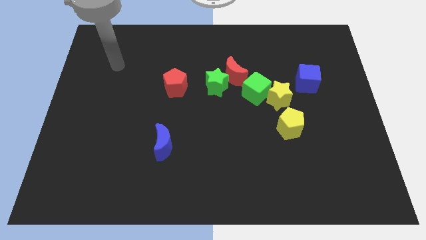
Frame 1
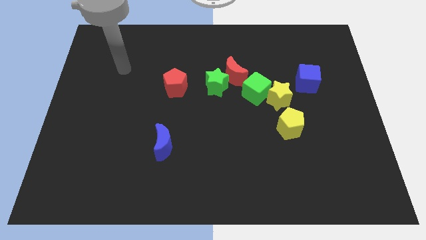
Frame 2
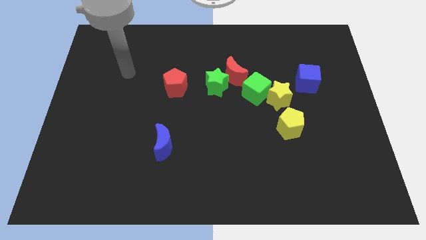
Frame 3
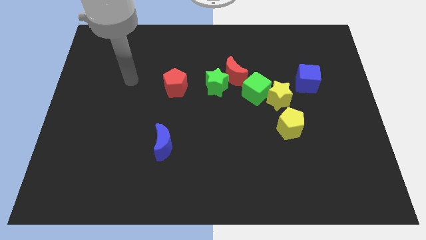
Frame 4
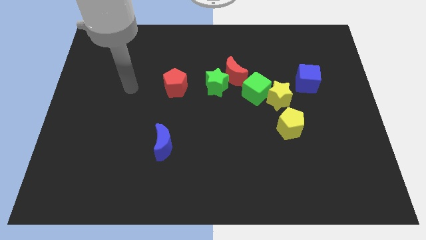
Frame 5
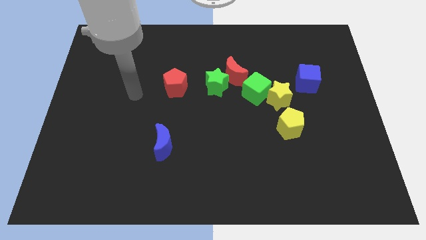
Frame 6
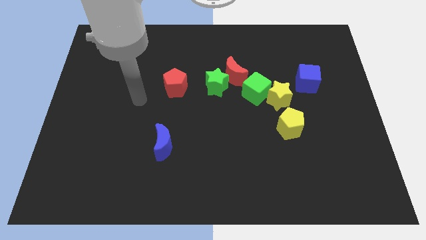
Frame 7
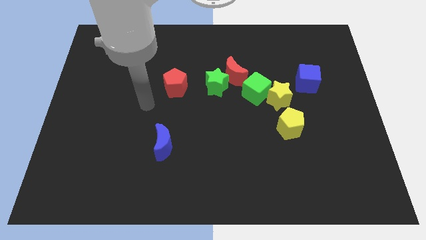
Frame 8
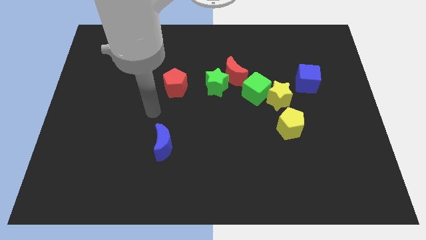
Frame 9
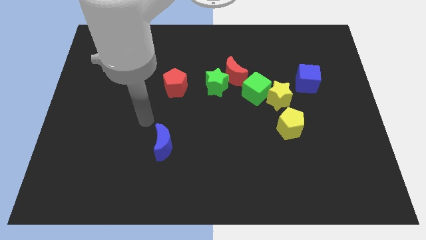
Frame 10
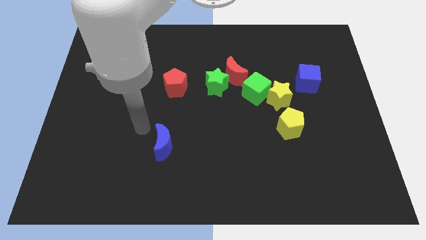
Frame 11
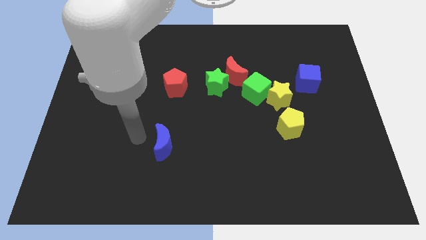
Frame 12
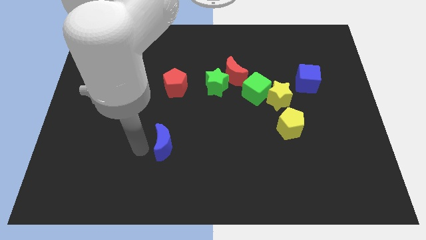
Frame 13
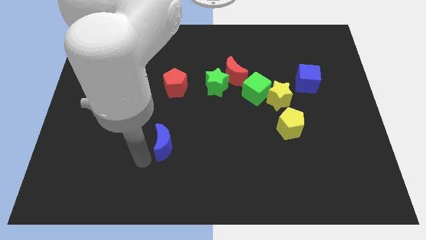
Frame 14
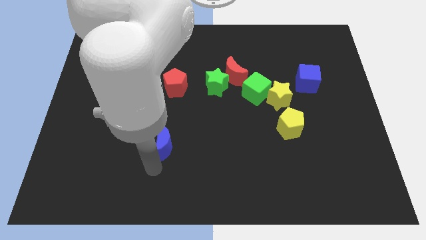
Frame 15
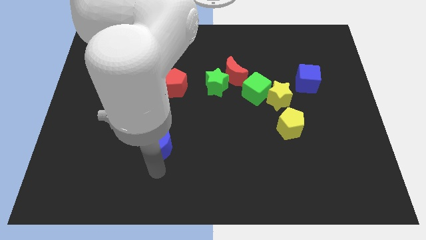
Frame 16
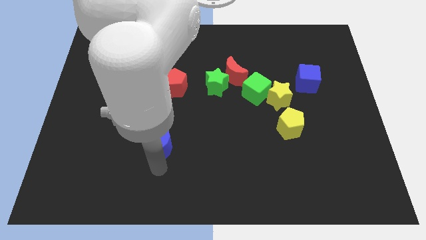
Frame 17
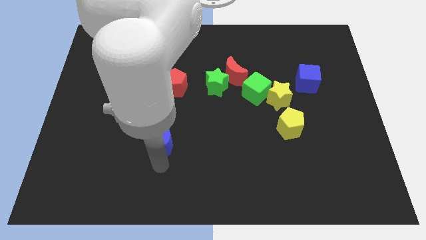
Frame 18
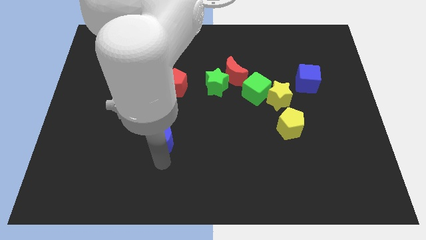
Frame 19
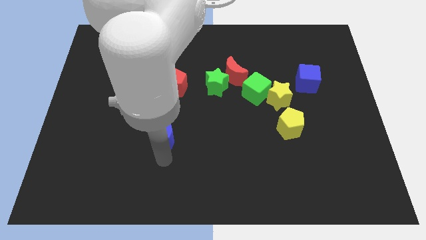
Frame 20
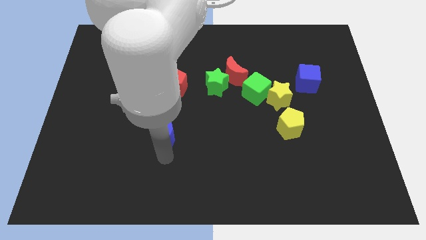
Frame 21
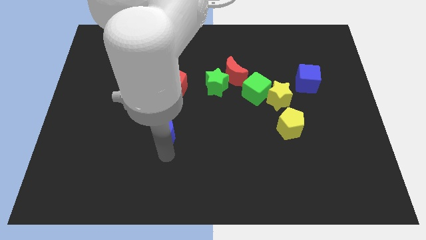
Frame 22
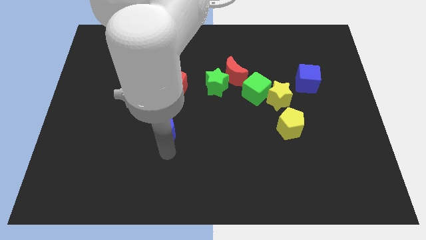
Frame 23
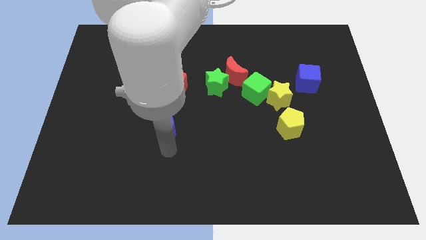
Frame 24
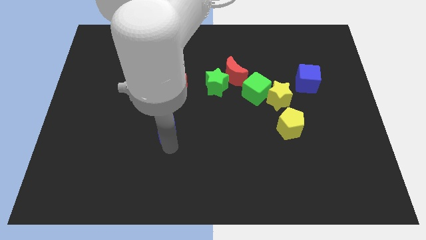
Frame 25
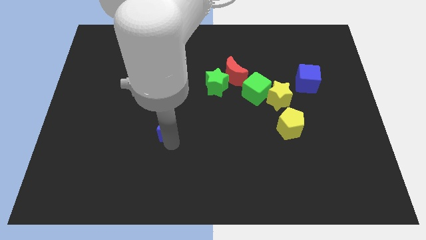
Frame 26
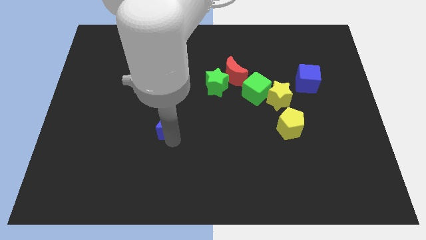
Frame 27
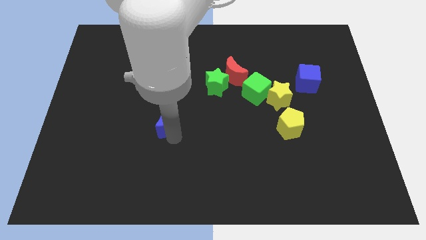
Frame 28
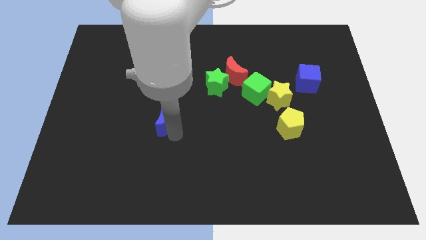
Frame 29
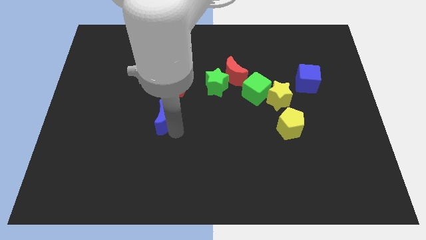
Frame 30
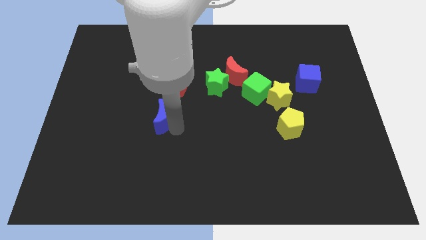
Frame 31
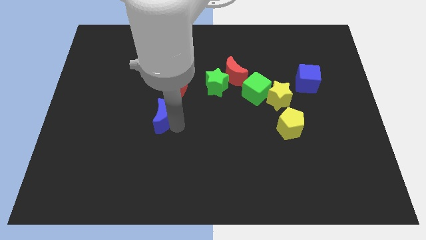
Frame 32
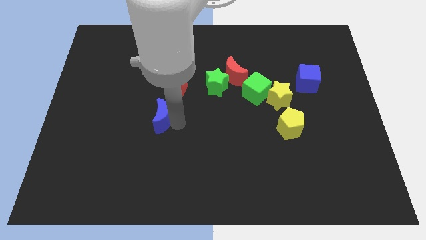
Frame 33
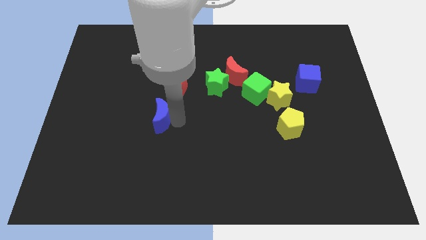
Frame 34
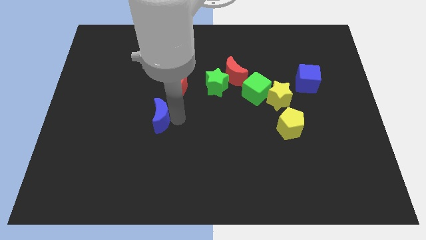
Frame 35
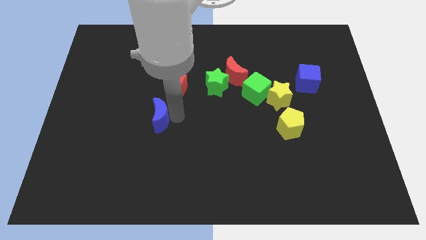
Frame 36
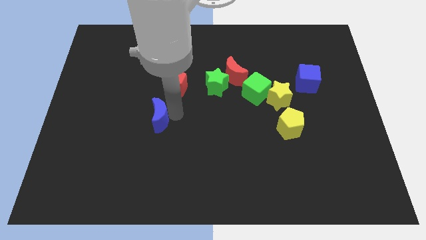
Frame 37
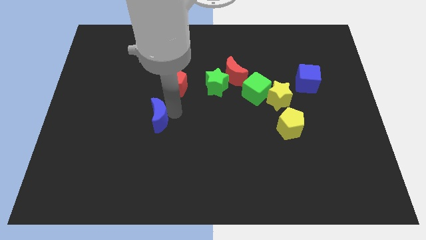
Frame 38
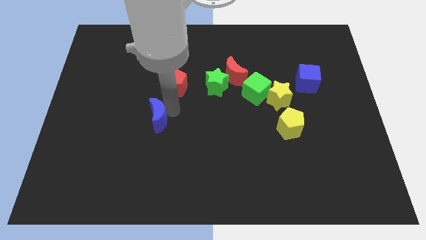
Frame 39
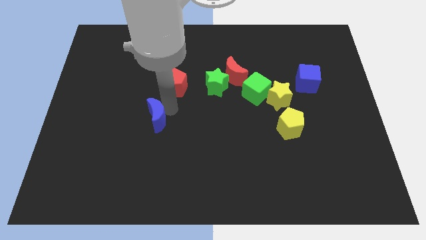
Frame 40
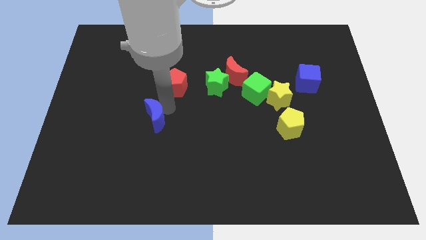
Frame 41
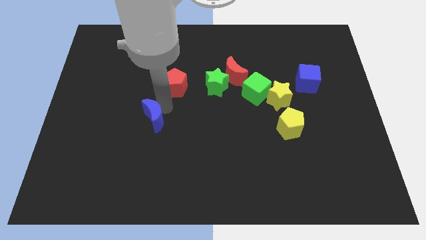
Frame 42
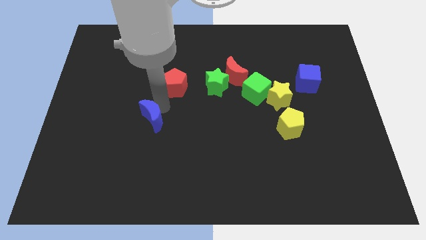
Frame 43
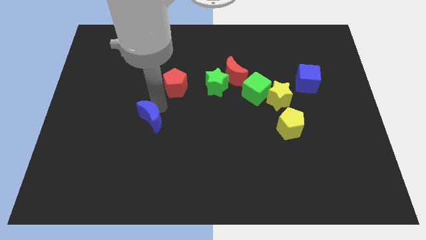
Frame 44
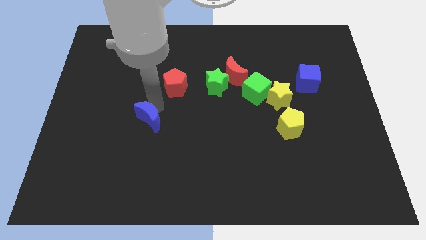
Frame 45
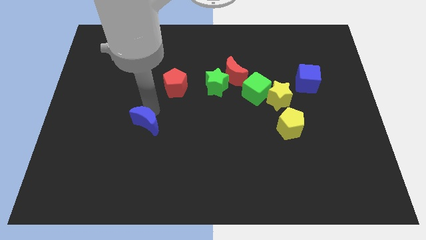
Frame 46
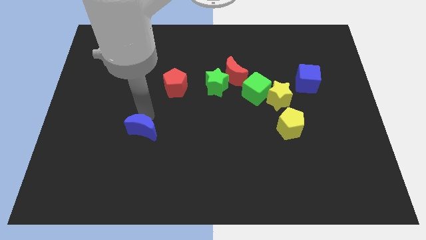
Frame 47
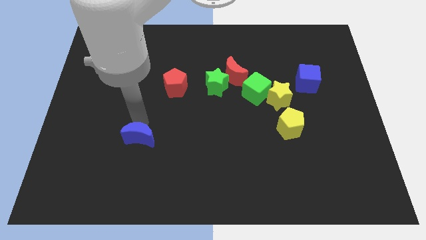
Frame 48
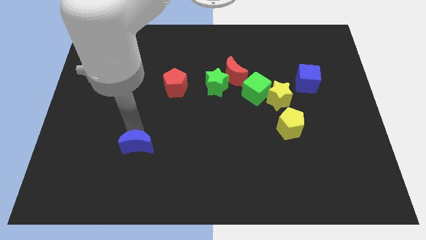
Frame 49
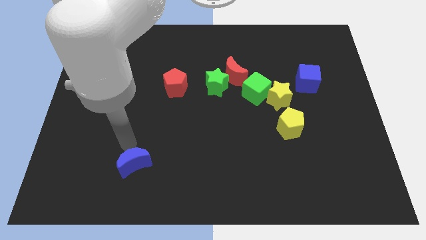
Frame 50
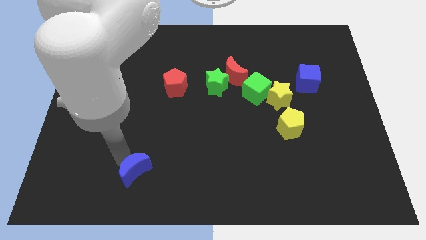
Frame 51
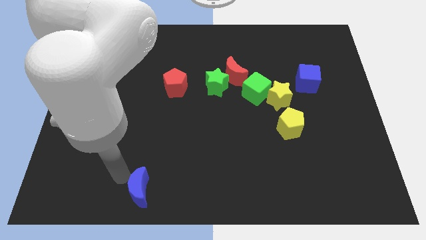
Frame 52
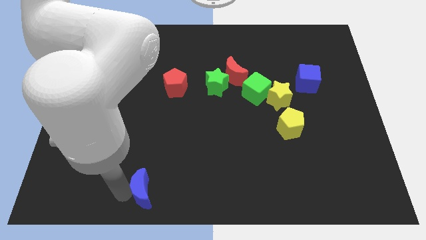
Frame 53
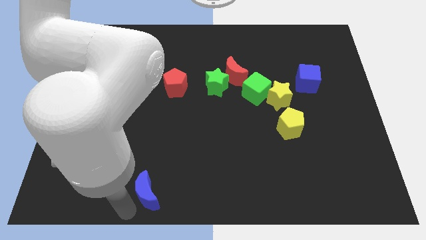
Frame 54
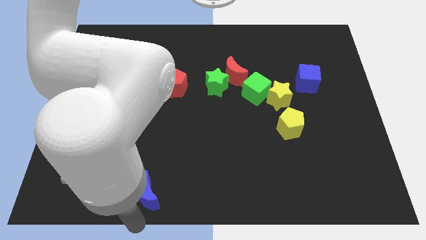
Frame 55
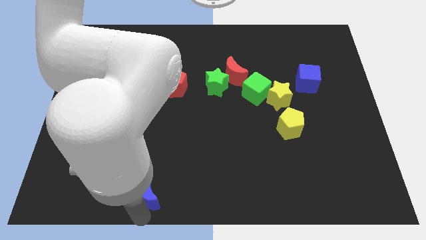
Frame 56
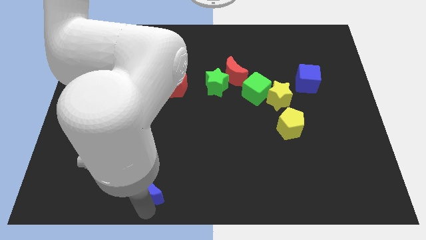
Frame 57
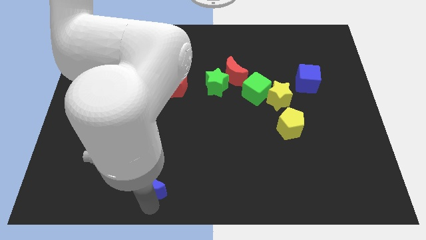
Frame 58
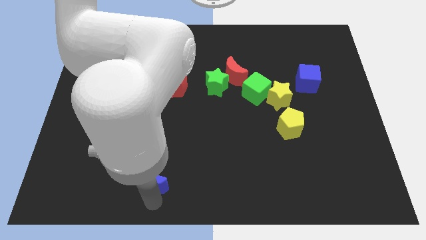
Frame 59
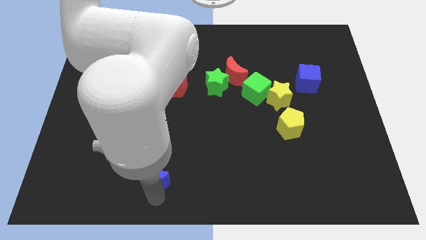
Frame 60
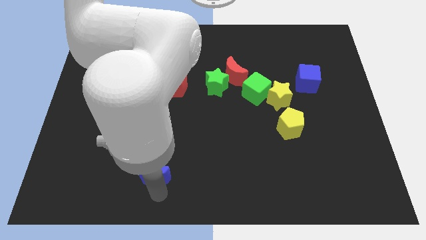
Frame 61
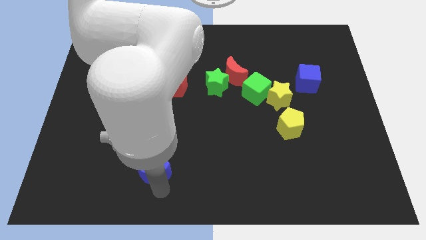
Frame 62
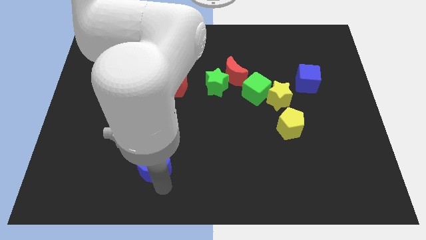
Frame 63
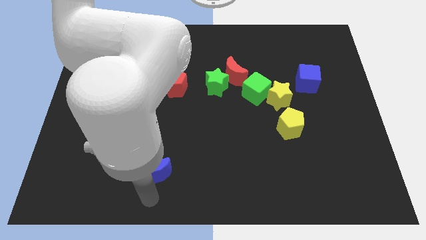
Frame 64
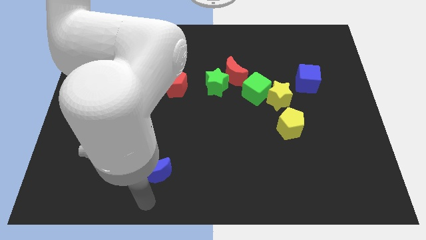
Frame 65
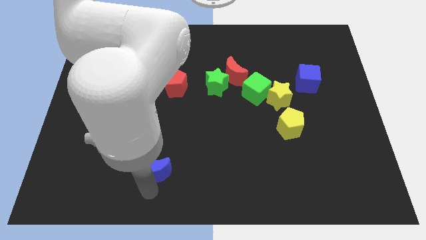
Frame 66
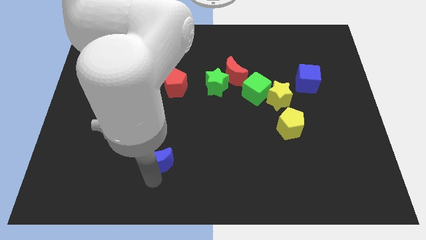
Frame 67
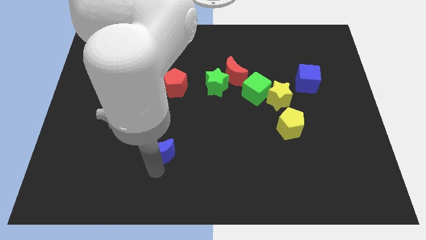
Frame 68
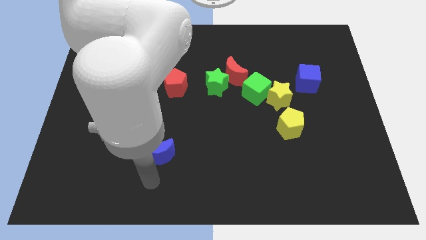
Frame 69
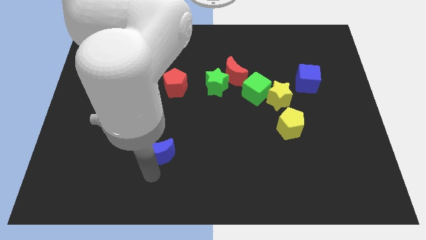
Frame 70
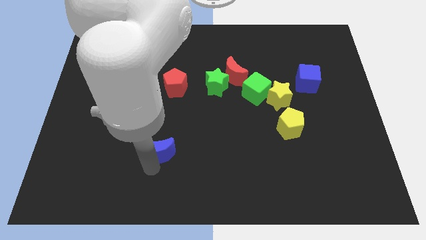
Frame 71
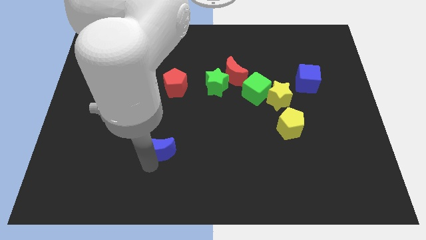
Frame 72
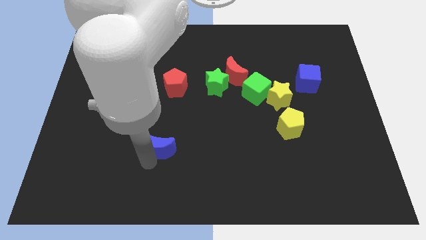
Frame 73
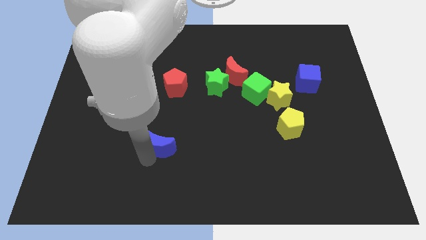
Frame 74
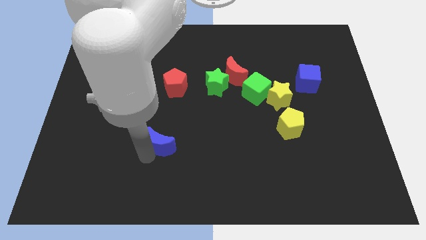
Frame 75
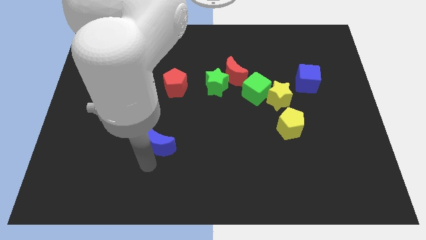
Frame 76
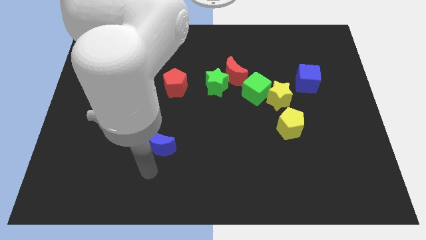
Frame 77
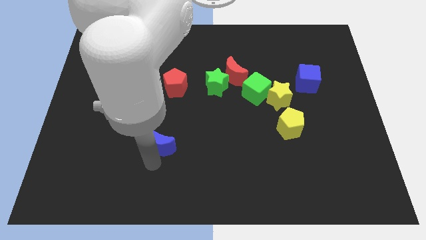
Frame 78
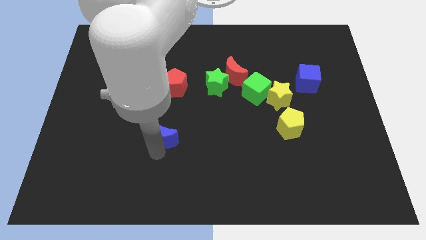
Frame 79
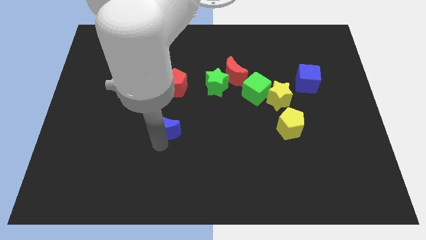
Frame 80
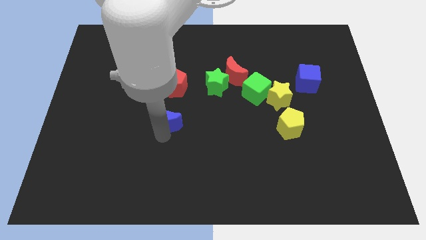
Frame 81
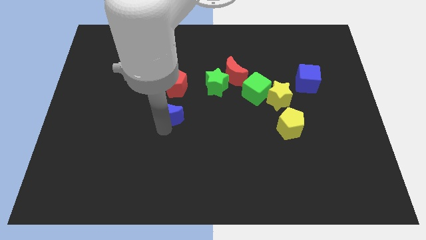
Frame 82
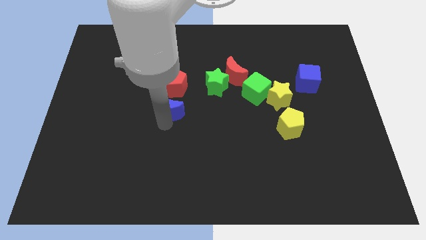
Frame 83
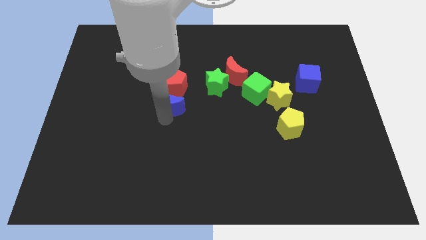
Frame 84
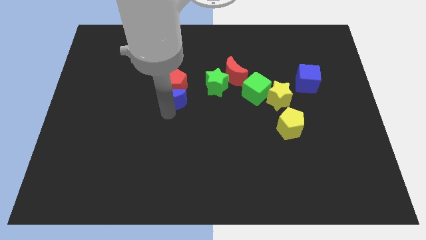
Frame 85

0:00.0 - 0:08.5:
put the blue moon towards the red pentagon
